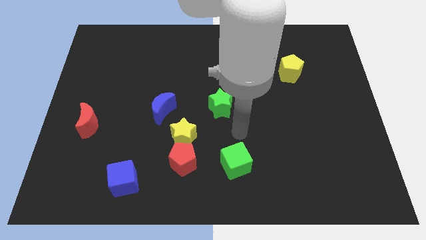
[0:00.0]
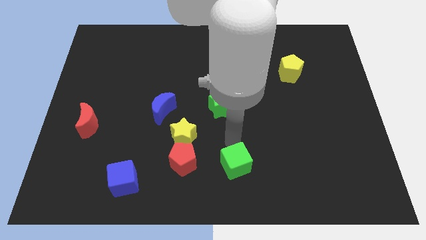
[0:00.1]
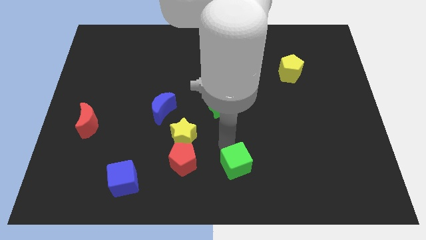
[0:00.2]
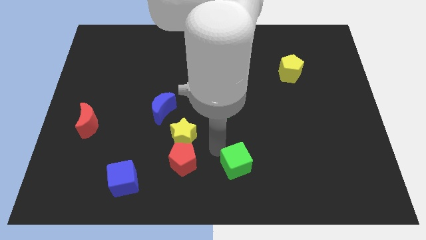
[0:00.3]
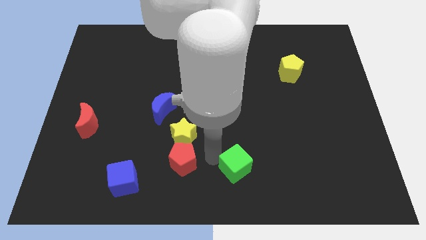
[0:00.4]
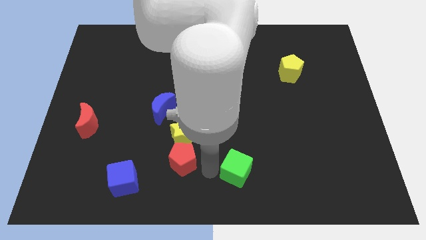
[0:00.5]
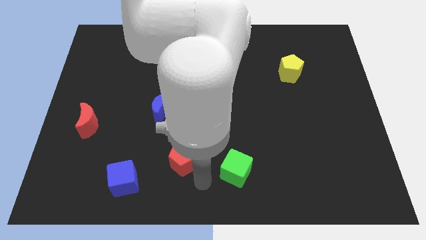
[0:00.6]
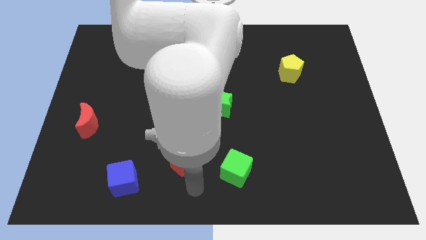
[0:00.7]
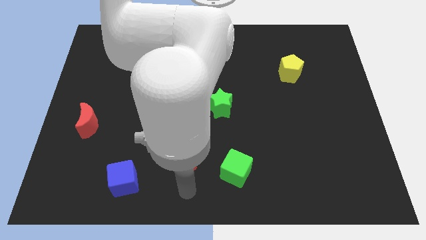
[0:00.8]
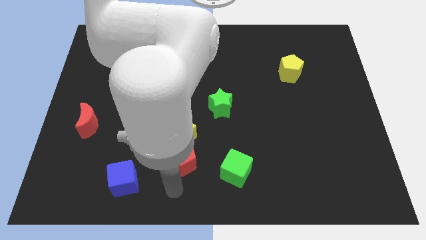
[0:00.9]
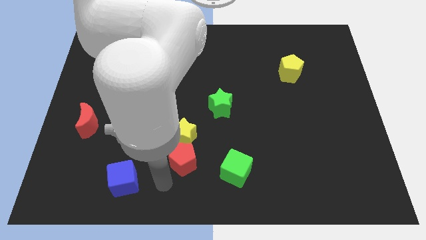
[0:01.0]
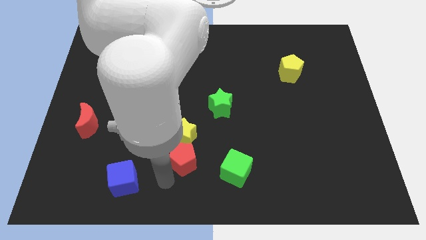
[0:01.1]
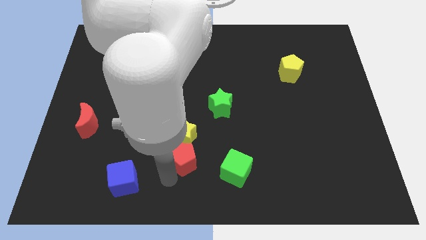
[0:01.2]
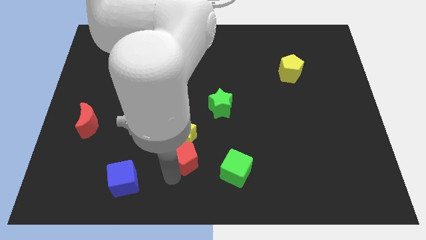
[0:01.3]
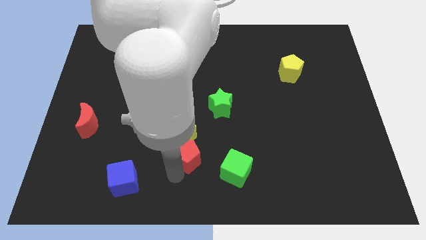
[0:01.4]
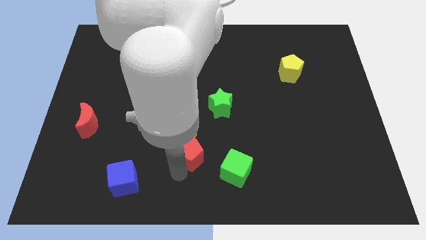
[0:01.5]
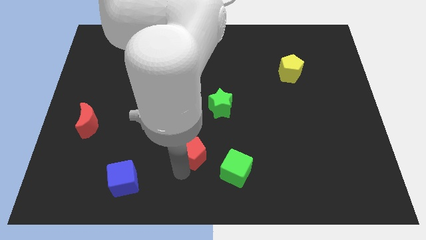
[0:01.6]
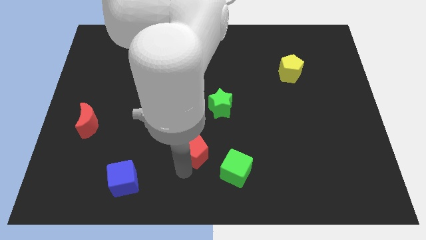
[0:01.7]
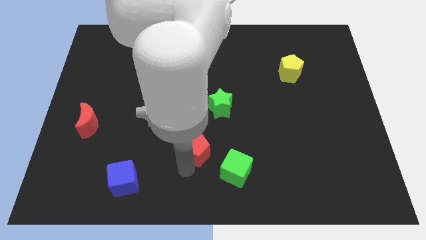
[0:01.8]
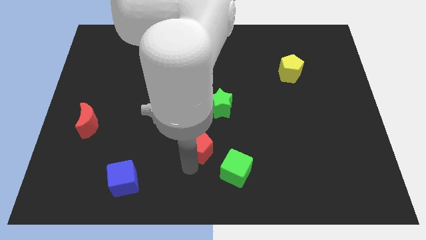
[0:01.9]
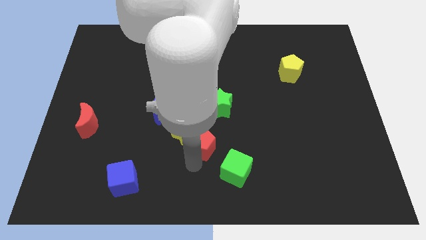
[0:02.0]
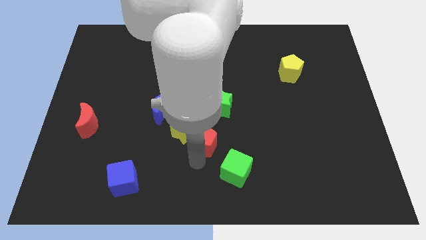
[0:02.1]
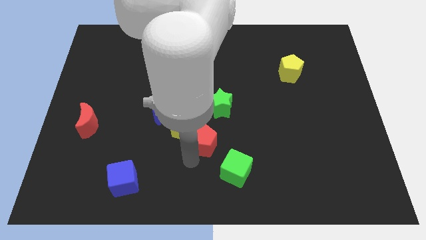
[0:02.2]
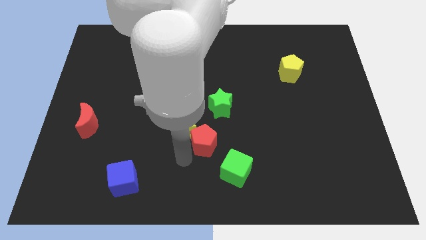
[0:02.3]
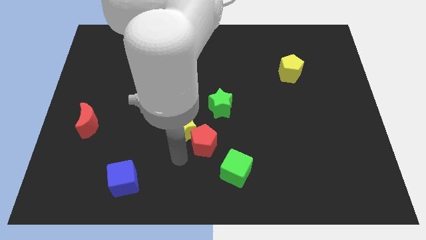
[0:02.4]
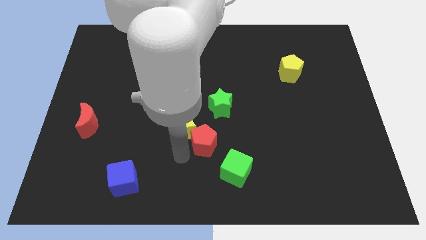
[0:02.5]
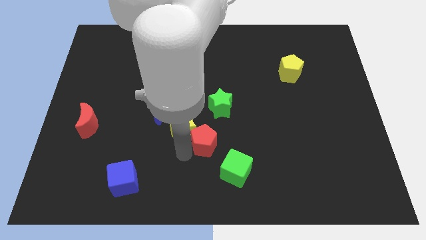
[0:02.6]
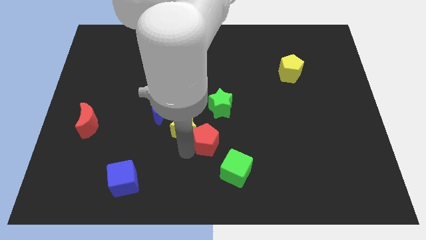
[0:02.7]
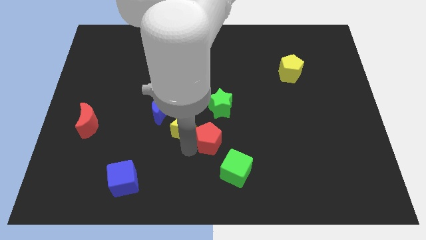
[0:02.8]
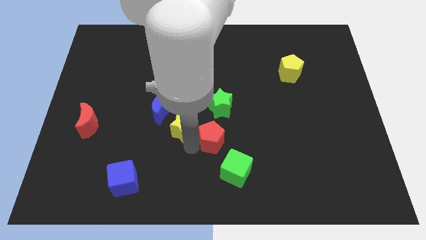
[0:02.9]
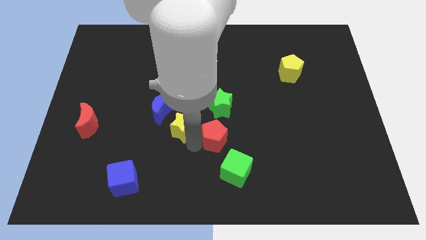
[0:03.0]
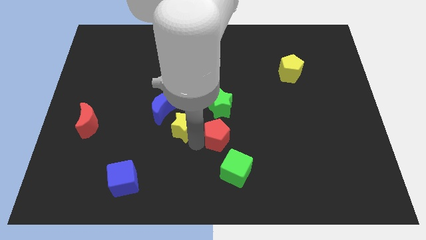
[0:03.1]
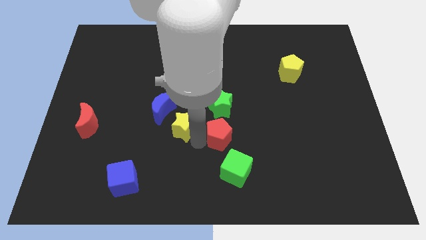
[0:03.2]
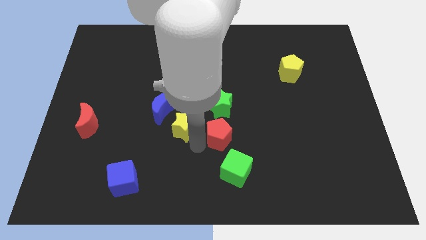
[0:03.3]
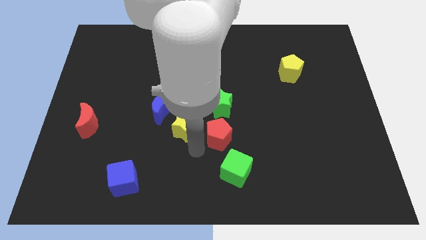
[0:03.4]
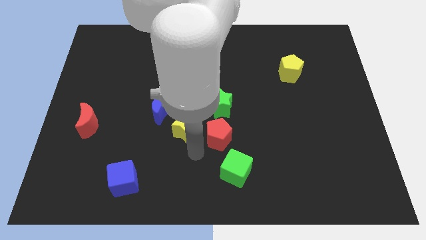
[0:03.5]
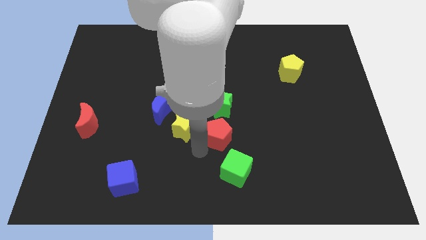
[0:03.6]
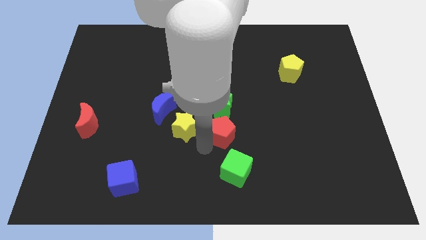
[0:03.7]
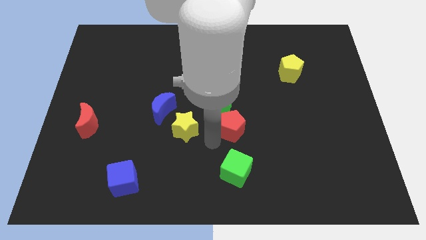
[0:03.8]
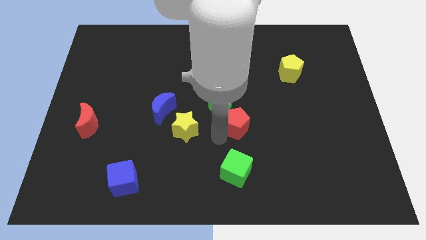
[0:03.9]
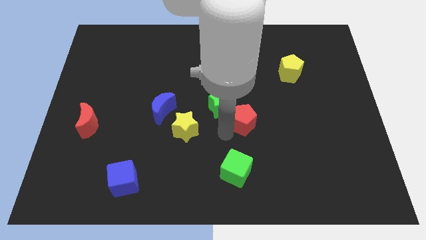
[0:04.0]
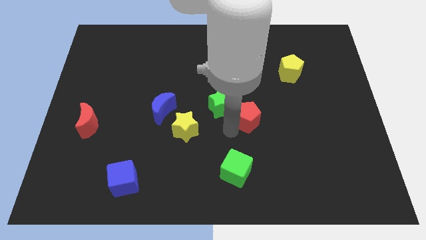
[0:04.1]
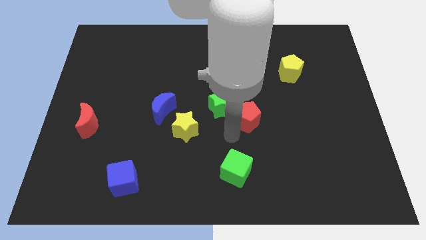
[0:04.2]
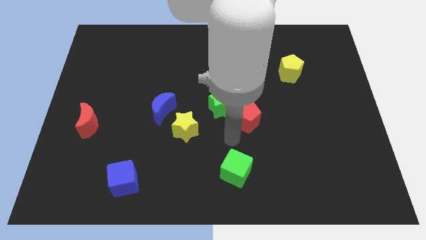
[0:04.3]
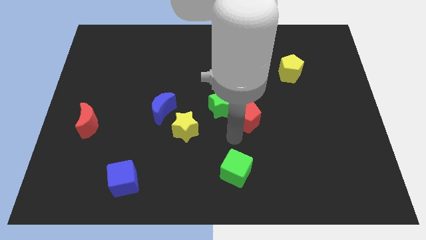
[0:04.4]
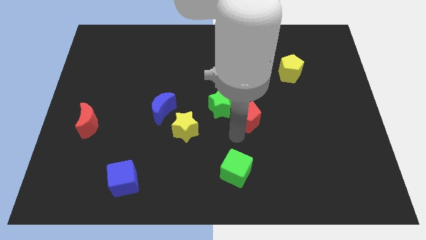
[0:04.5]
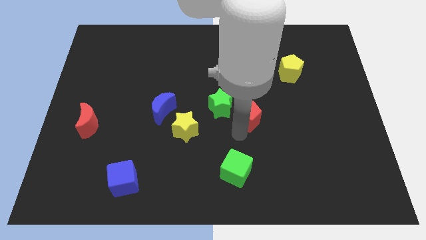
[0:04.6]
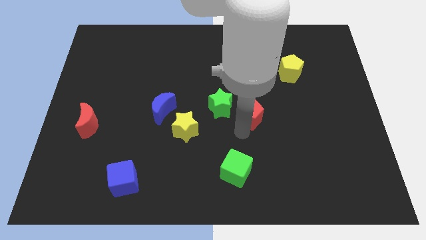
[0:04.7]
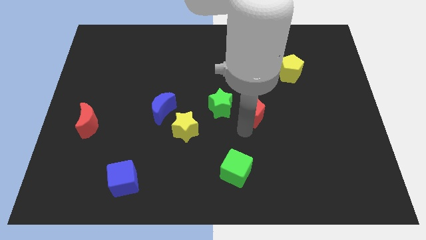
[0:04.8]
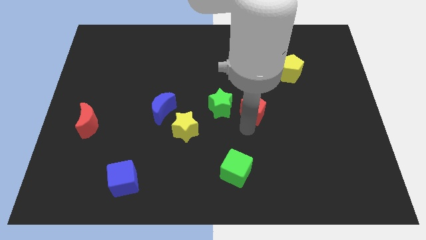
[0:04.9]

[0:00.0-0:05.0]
move the red pentagon upwards and right

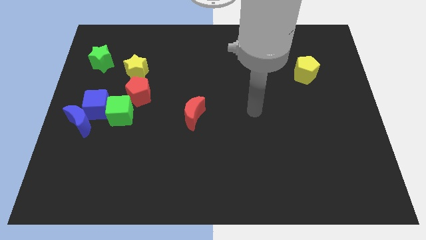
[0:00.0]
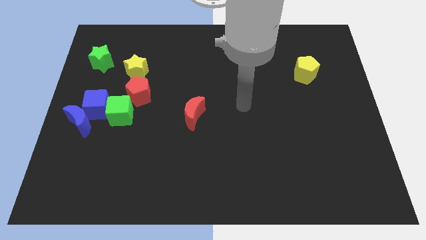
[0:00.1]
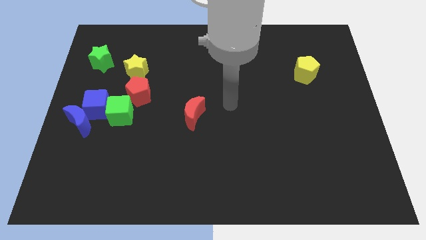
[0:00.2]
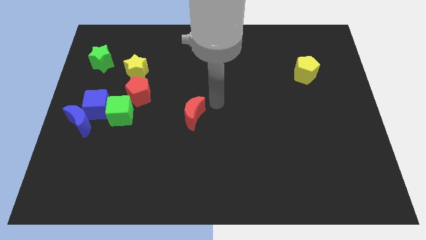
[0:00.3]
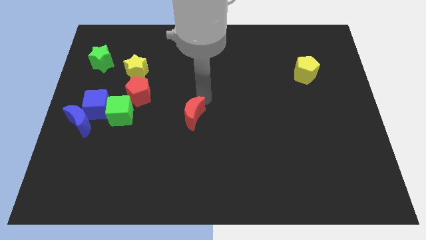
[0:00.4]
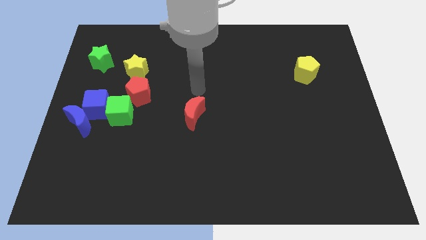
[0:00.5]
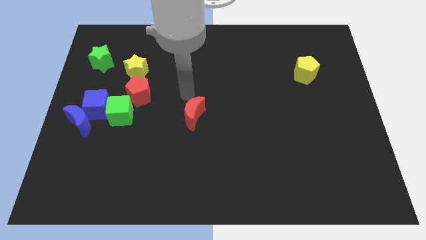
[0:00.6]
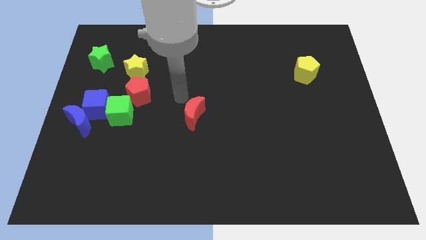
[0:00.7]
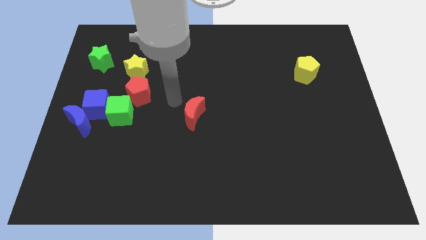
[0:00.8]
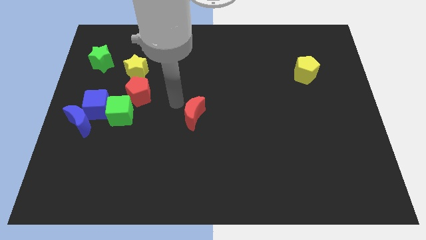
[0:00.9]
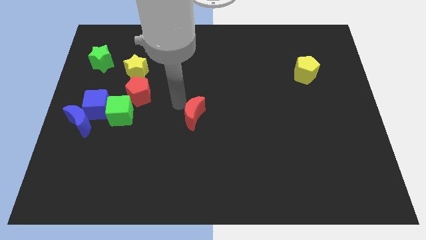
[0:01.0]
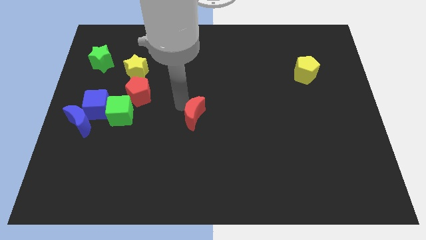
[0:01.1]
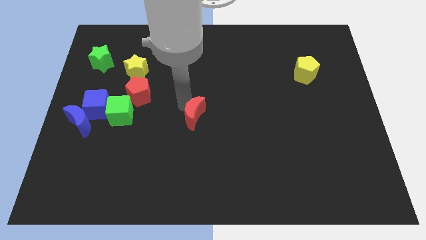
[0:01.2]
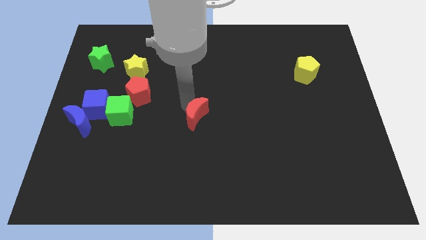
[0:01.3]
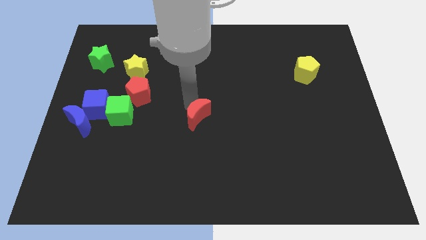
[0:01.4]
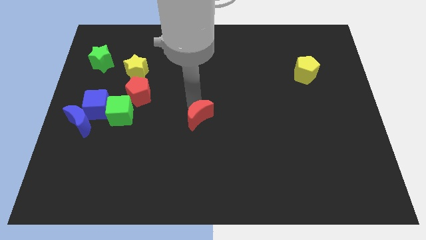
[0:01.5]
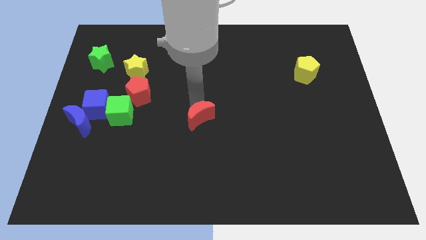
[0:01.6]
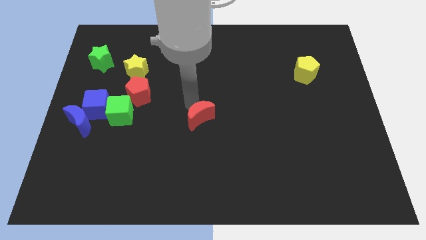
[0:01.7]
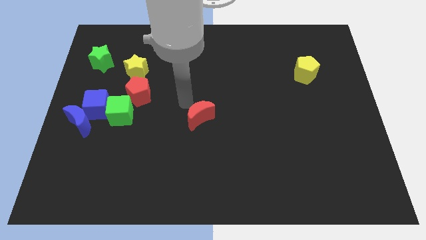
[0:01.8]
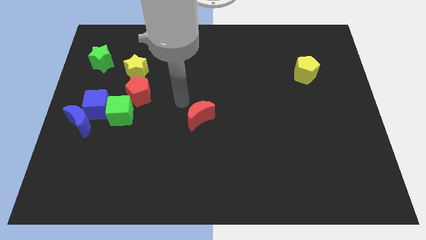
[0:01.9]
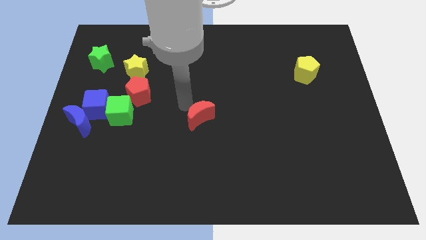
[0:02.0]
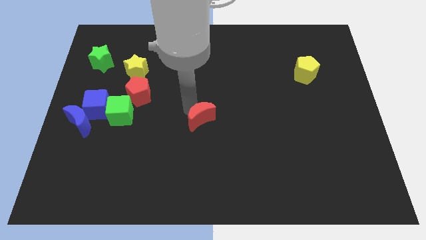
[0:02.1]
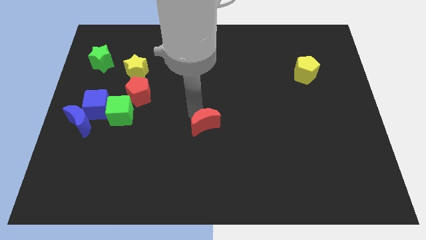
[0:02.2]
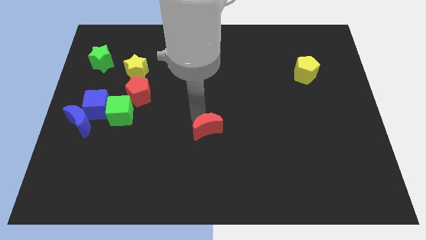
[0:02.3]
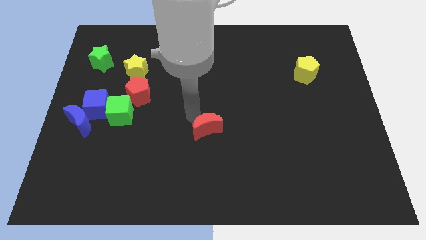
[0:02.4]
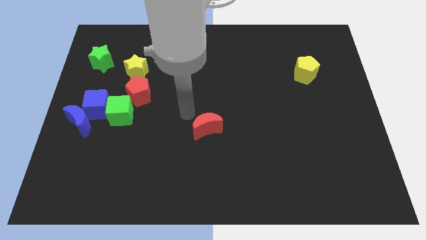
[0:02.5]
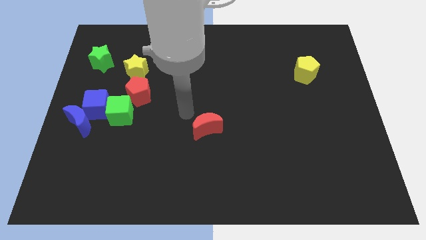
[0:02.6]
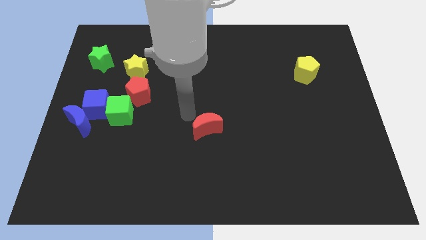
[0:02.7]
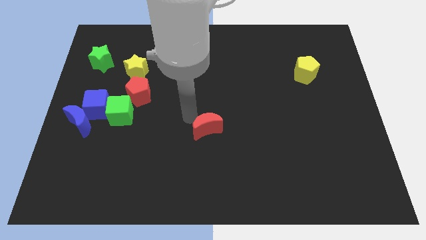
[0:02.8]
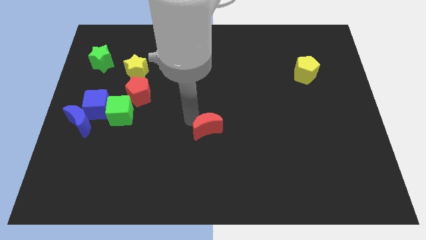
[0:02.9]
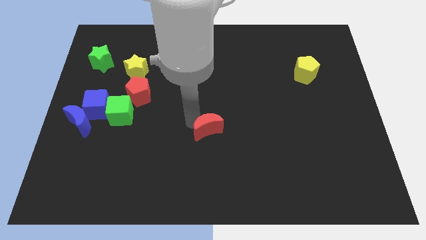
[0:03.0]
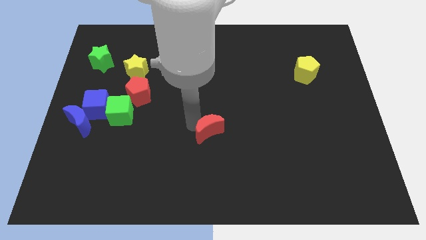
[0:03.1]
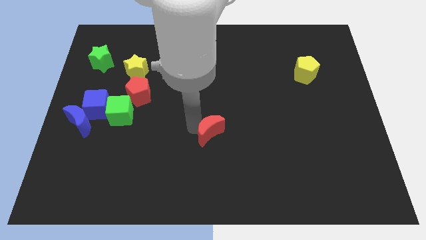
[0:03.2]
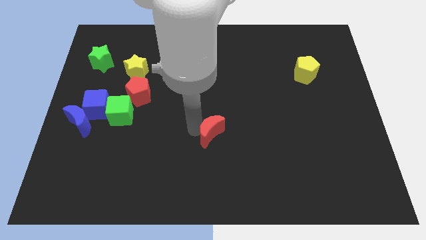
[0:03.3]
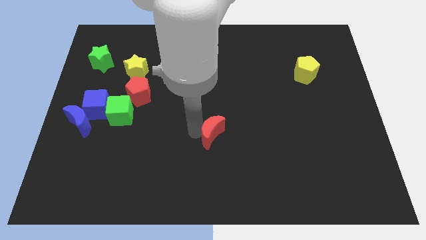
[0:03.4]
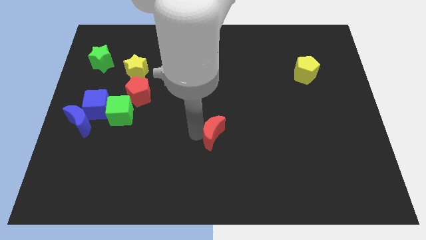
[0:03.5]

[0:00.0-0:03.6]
slide the red moon down and right somewhat
